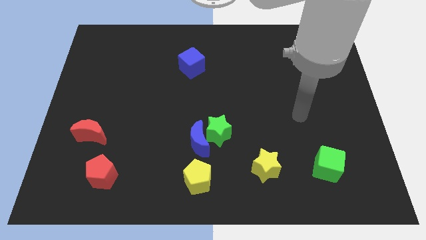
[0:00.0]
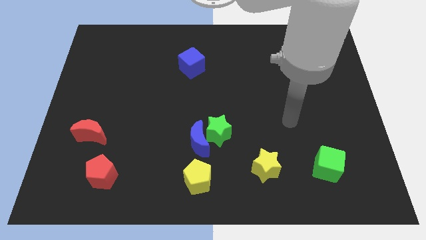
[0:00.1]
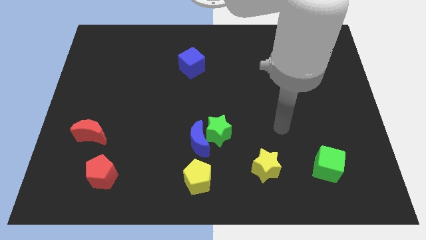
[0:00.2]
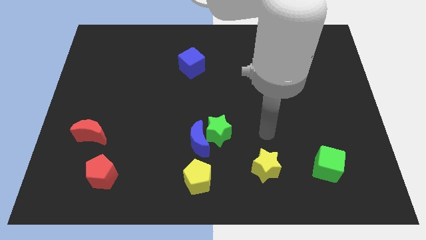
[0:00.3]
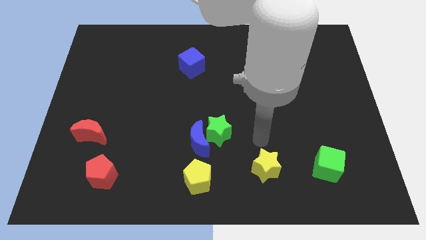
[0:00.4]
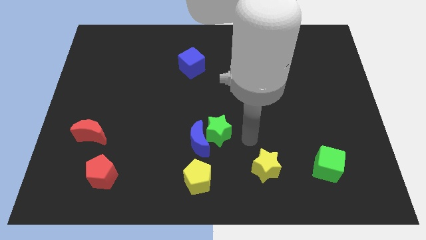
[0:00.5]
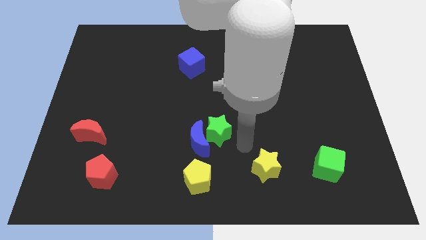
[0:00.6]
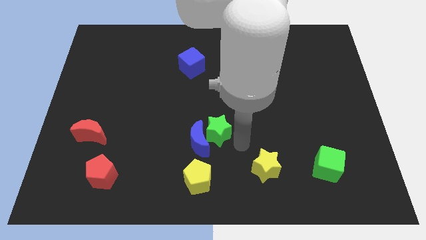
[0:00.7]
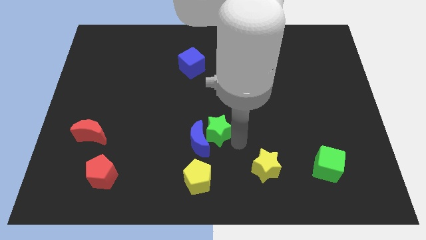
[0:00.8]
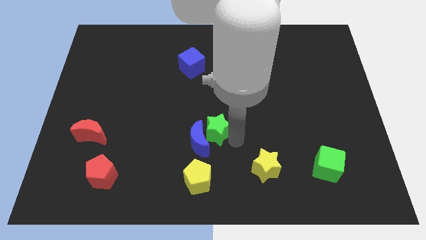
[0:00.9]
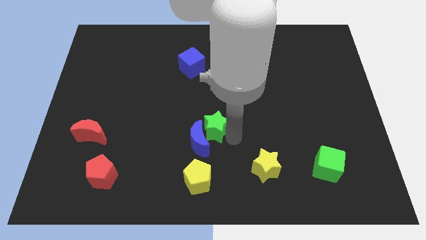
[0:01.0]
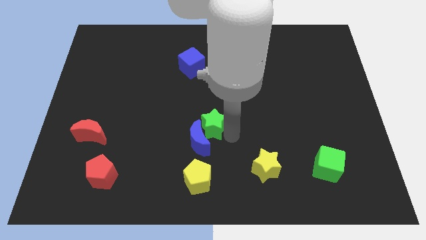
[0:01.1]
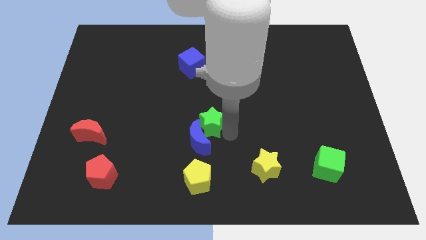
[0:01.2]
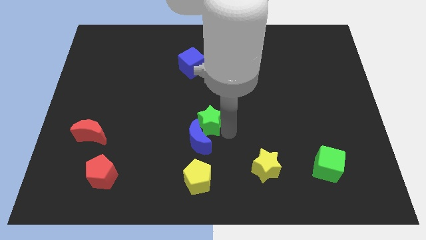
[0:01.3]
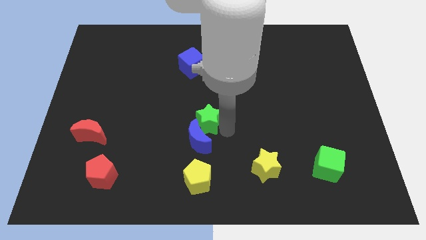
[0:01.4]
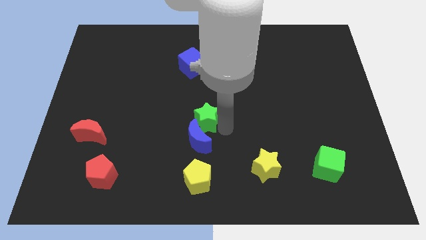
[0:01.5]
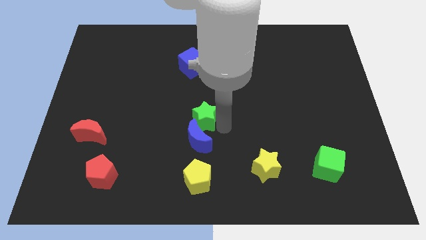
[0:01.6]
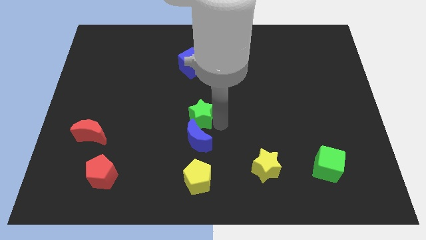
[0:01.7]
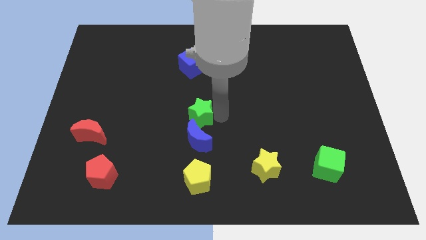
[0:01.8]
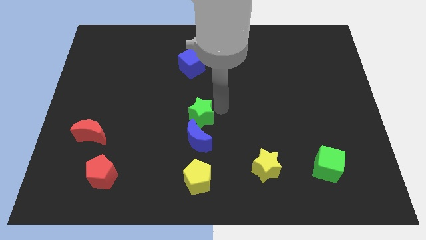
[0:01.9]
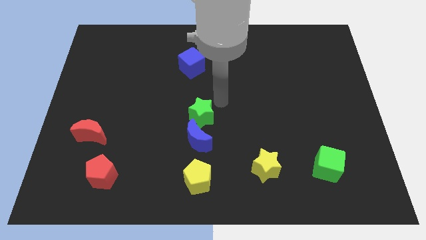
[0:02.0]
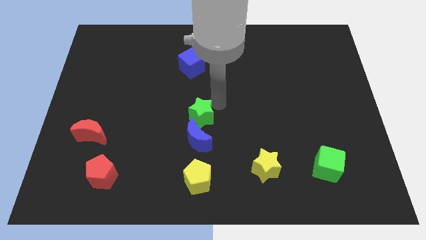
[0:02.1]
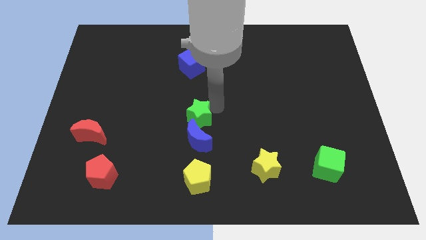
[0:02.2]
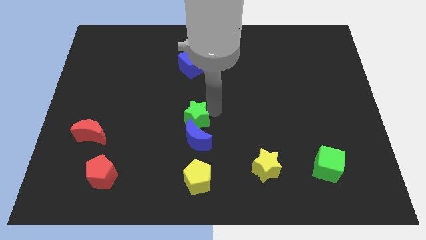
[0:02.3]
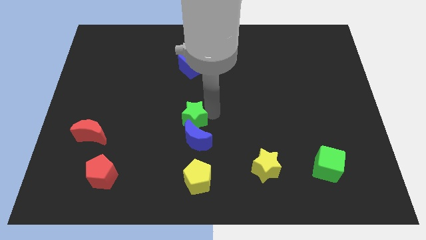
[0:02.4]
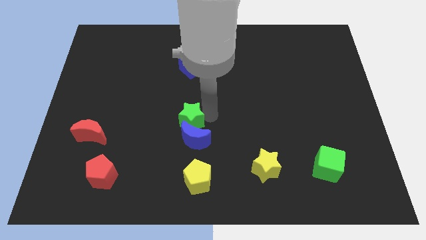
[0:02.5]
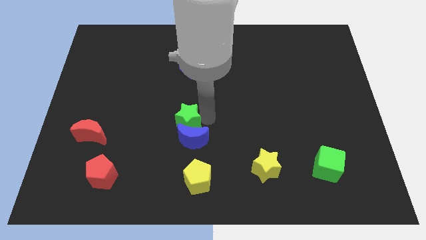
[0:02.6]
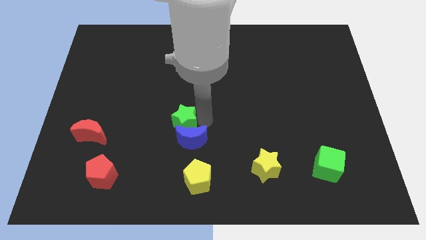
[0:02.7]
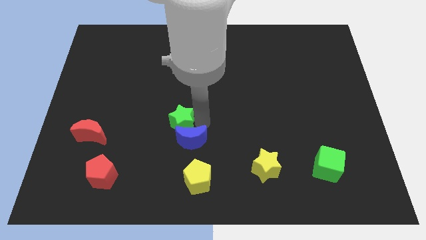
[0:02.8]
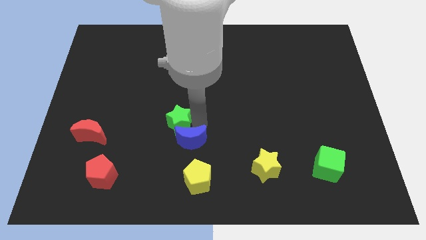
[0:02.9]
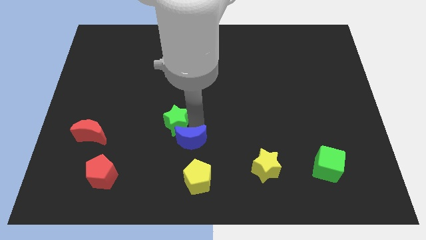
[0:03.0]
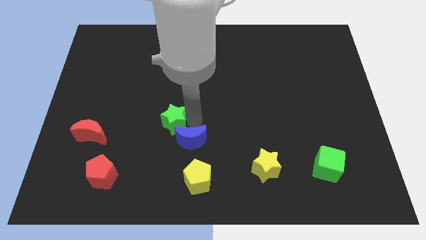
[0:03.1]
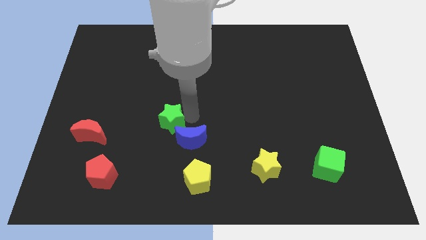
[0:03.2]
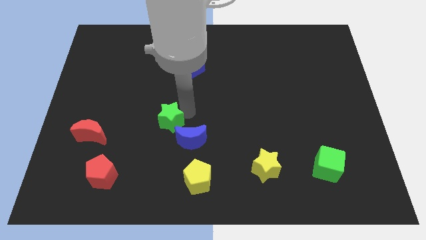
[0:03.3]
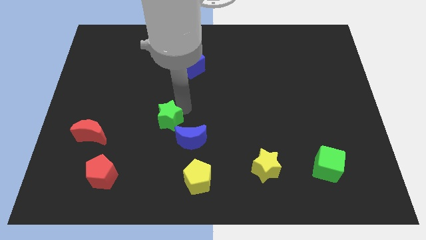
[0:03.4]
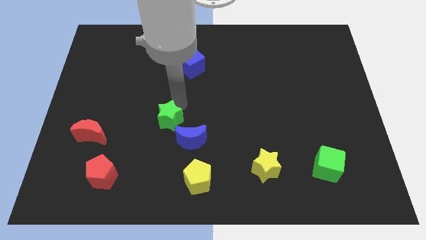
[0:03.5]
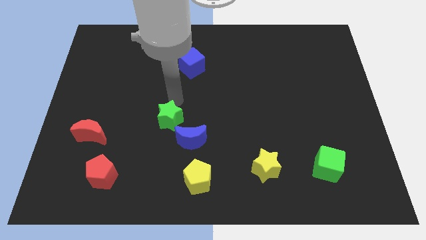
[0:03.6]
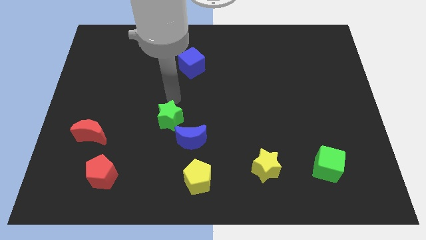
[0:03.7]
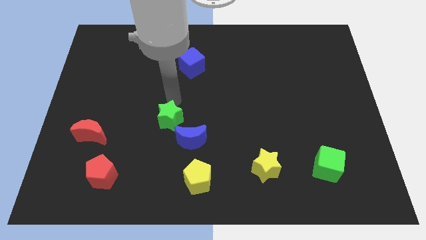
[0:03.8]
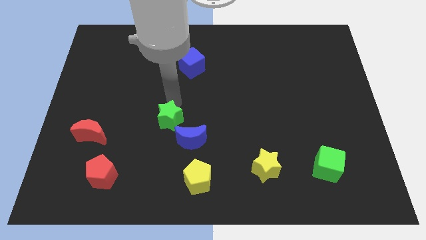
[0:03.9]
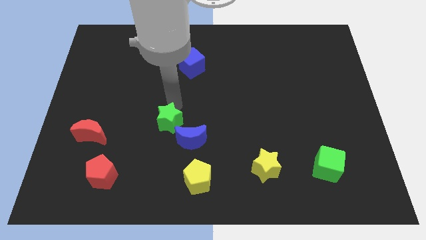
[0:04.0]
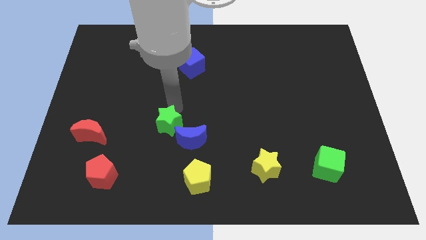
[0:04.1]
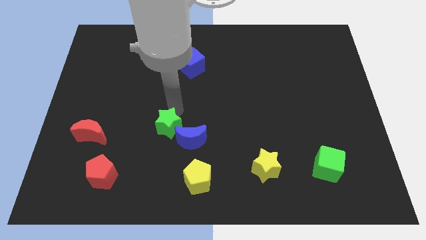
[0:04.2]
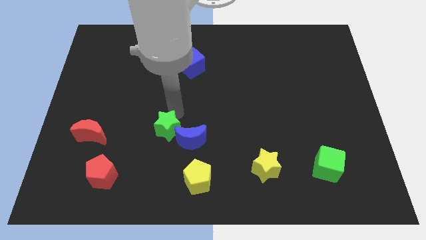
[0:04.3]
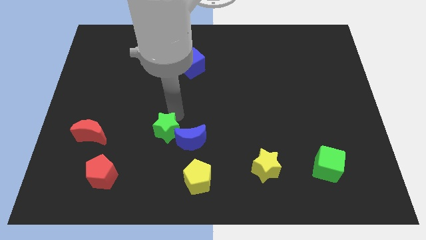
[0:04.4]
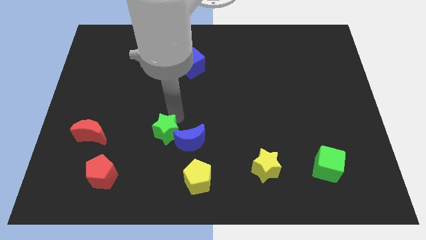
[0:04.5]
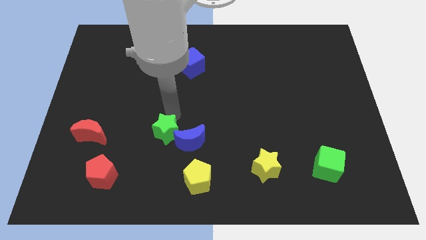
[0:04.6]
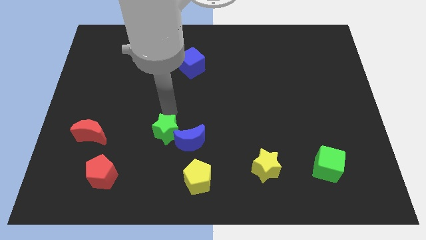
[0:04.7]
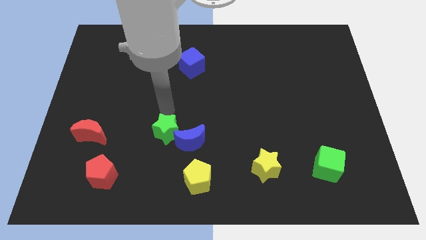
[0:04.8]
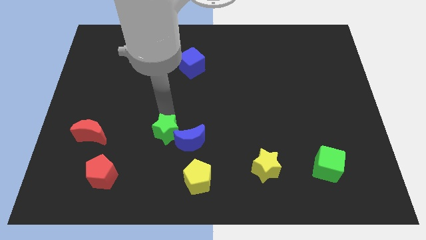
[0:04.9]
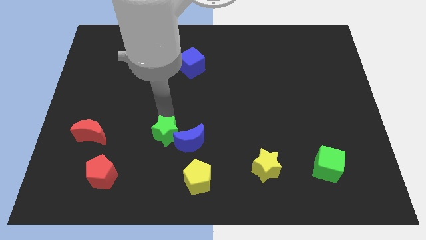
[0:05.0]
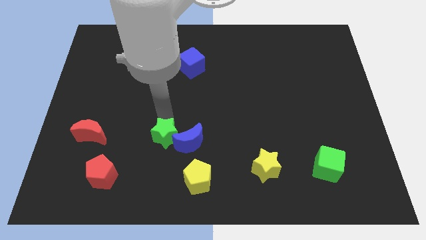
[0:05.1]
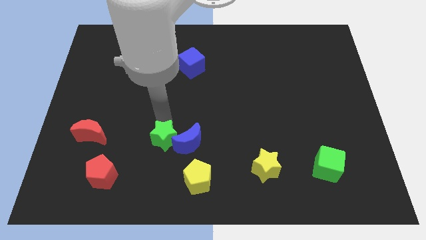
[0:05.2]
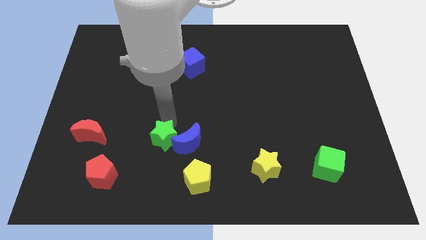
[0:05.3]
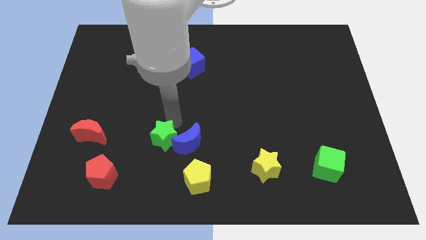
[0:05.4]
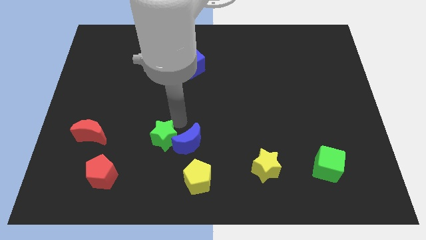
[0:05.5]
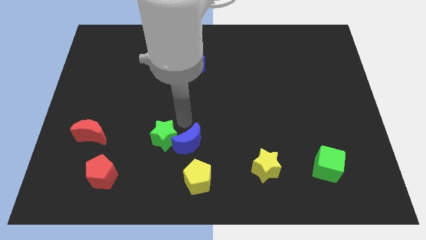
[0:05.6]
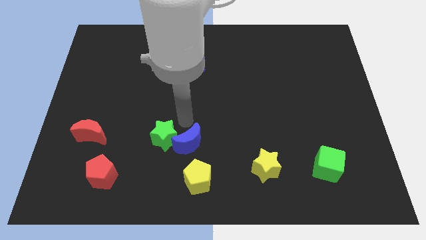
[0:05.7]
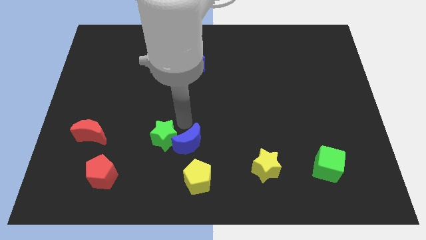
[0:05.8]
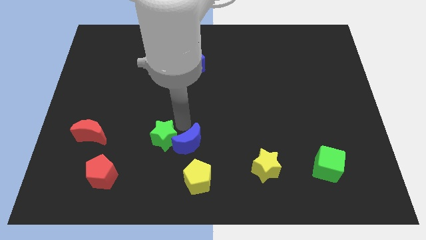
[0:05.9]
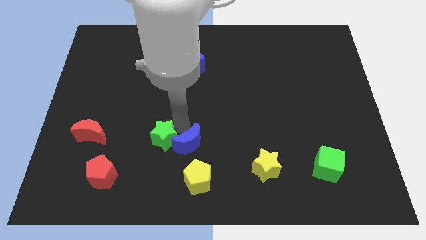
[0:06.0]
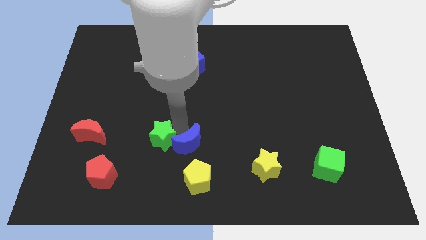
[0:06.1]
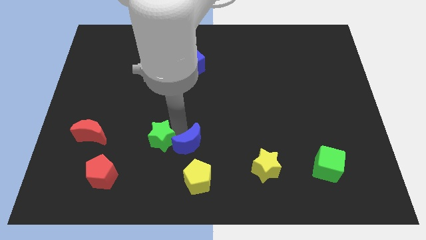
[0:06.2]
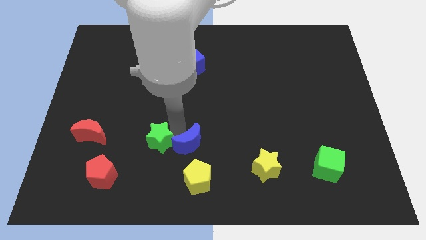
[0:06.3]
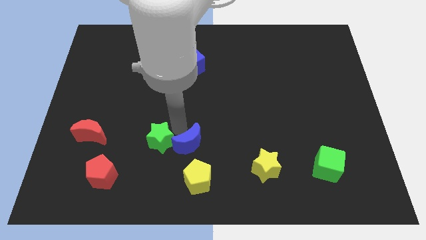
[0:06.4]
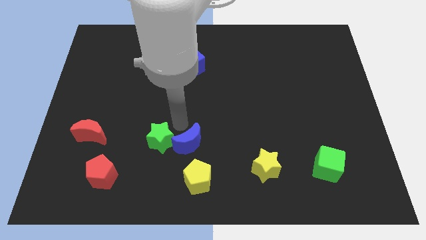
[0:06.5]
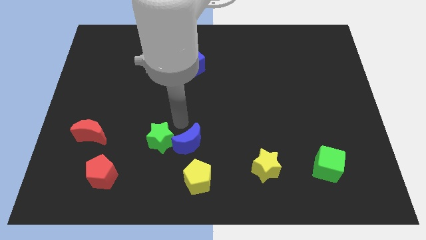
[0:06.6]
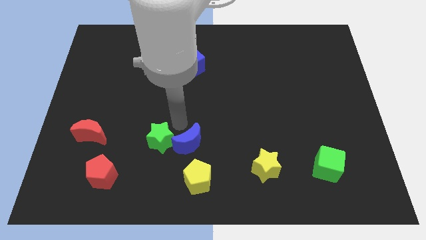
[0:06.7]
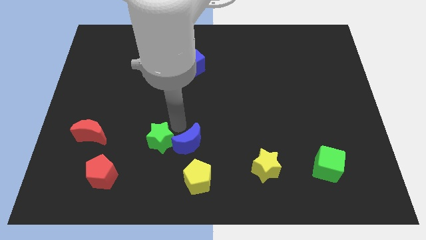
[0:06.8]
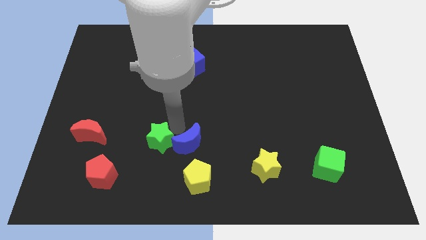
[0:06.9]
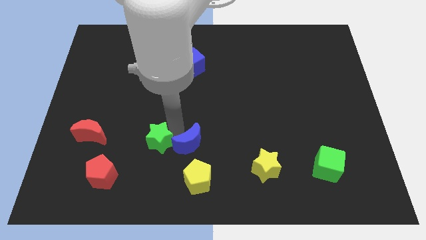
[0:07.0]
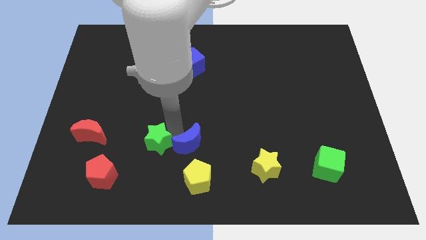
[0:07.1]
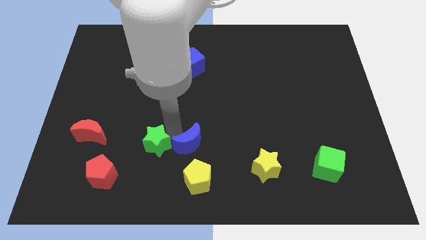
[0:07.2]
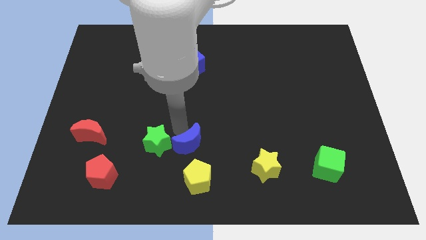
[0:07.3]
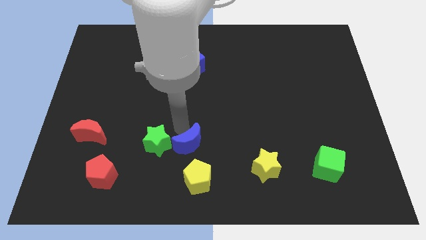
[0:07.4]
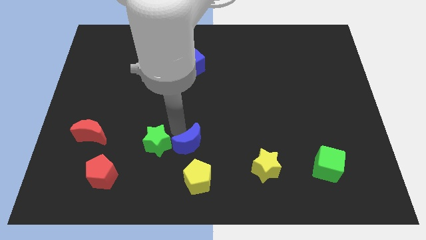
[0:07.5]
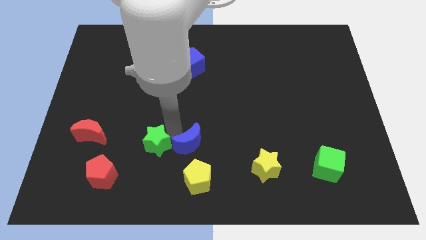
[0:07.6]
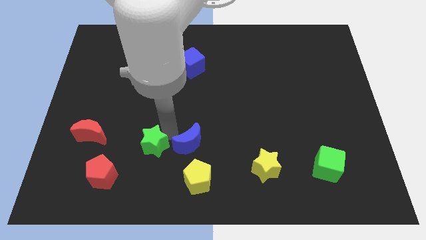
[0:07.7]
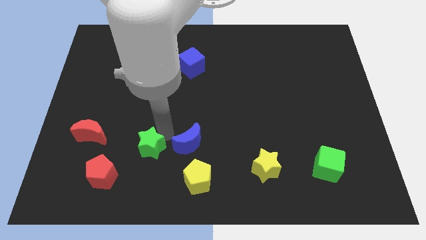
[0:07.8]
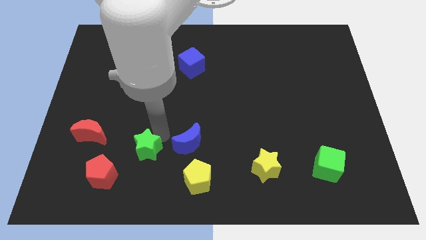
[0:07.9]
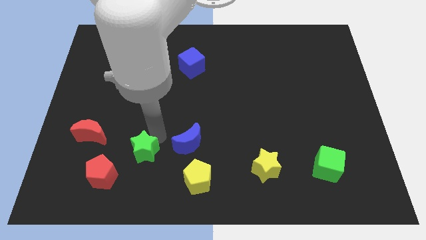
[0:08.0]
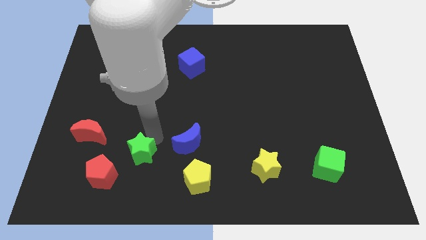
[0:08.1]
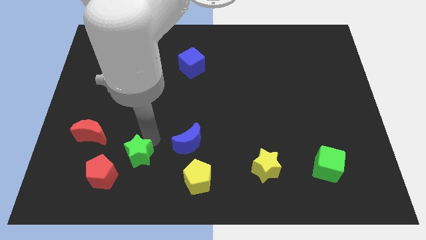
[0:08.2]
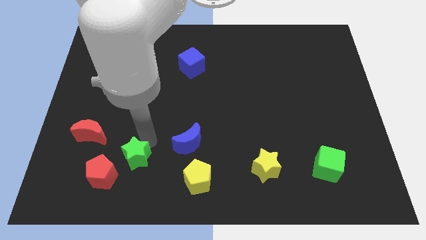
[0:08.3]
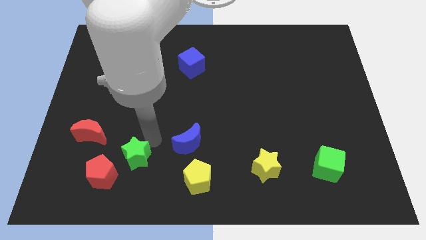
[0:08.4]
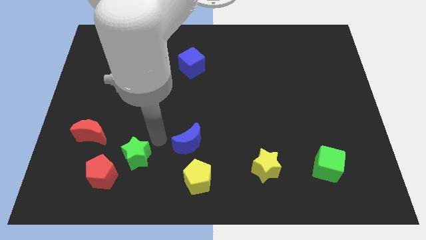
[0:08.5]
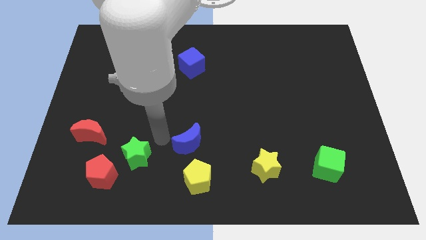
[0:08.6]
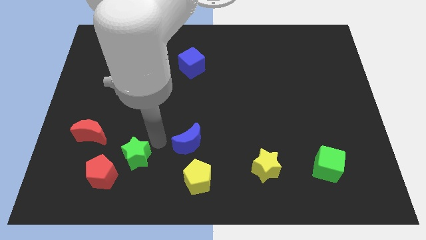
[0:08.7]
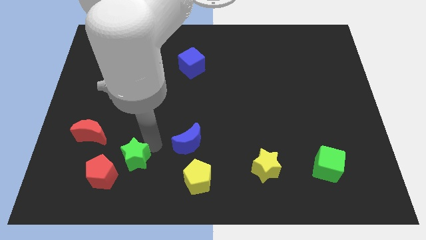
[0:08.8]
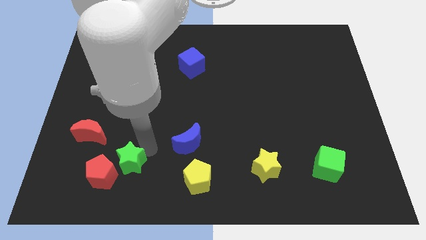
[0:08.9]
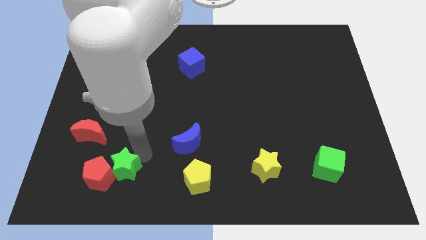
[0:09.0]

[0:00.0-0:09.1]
put the green star towards the red pentagon
